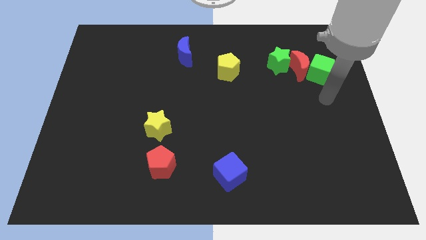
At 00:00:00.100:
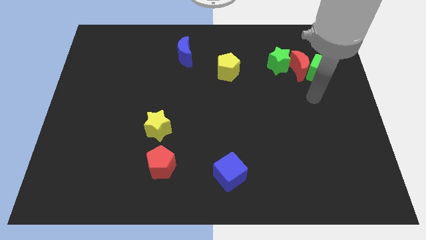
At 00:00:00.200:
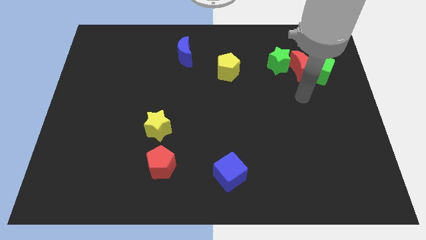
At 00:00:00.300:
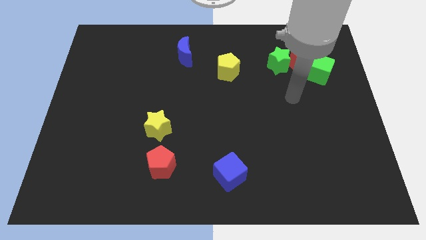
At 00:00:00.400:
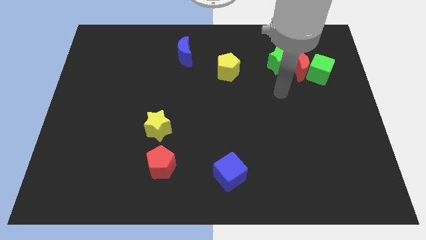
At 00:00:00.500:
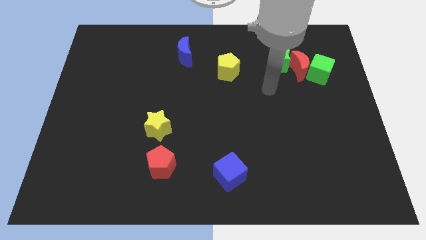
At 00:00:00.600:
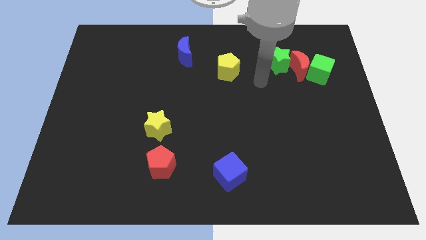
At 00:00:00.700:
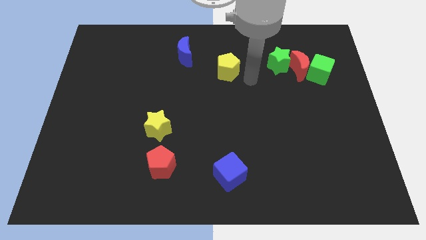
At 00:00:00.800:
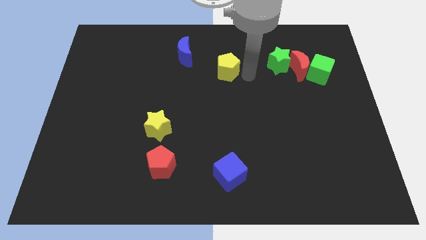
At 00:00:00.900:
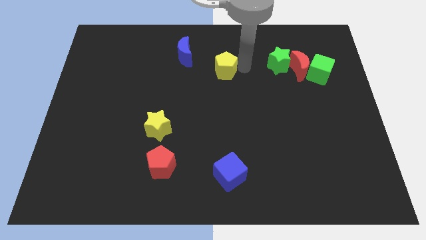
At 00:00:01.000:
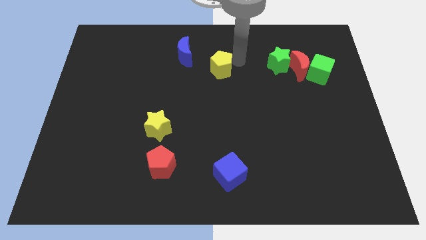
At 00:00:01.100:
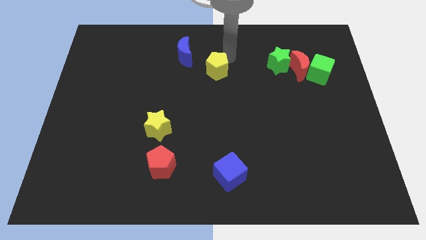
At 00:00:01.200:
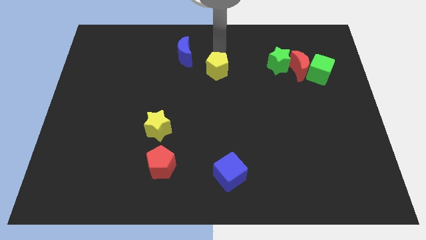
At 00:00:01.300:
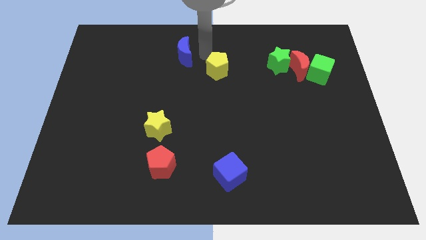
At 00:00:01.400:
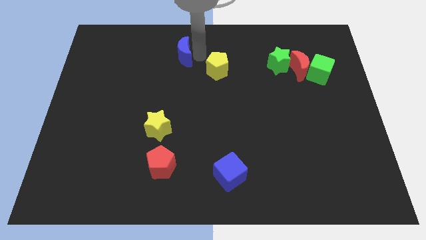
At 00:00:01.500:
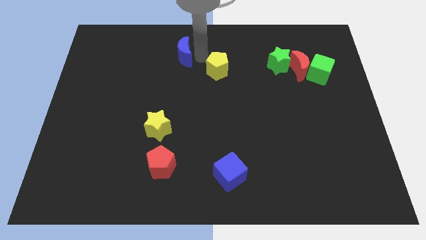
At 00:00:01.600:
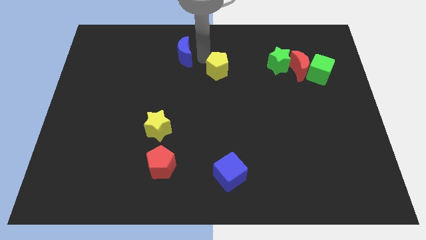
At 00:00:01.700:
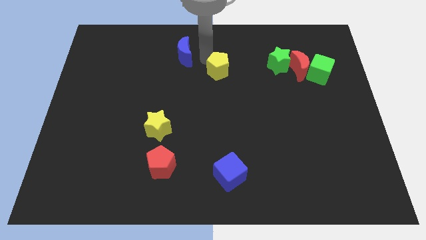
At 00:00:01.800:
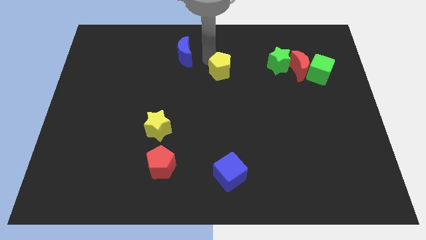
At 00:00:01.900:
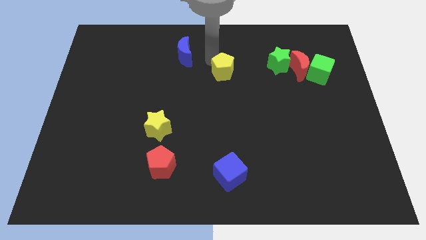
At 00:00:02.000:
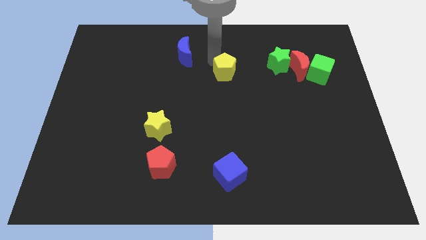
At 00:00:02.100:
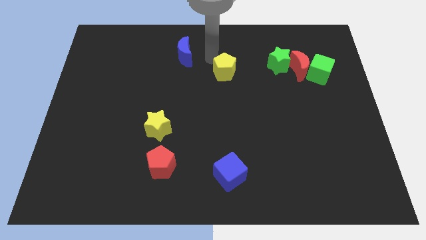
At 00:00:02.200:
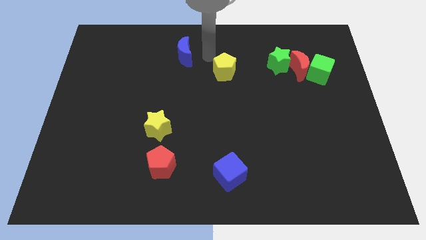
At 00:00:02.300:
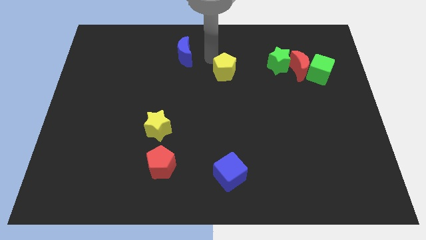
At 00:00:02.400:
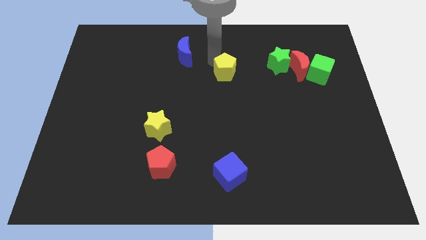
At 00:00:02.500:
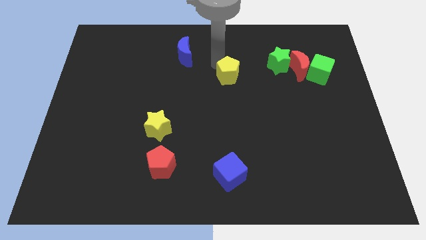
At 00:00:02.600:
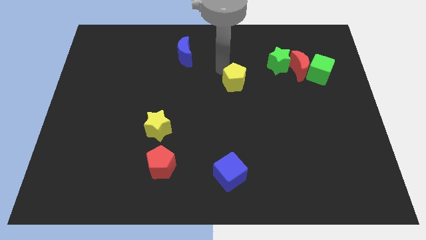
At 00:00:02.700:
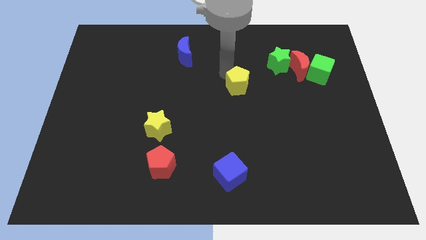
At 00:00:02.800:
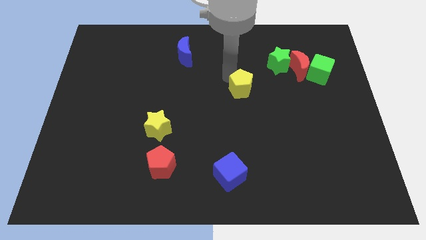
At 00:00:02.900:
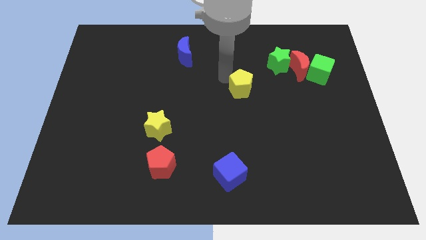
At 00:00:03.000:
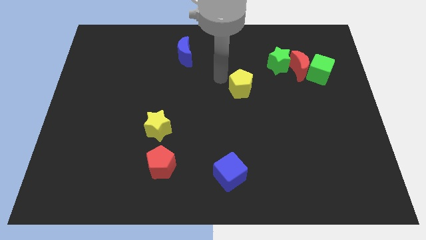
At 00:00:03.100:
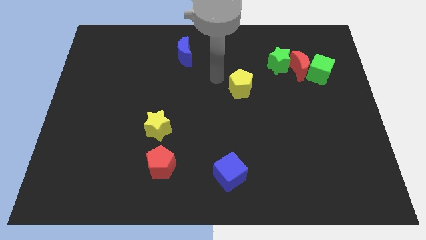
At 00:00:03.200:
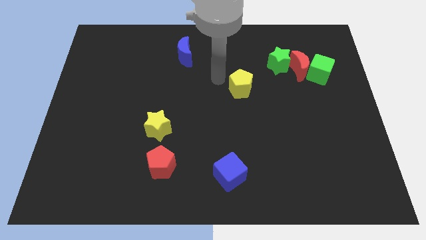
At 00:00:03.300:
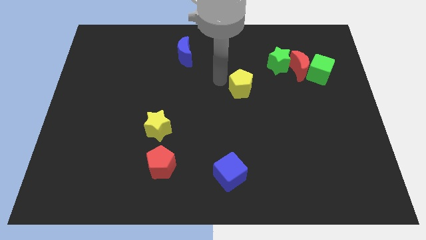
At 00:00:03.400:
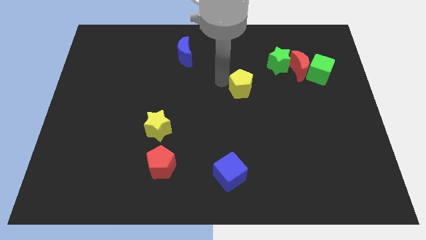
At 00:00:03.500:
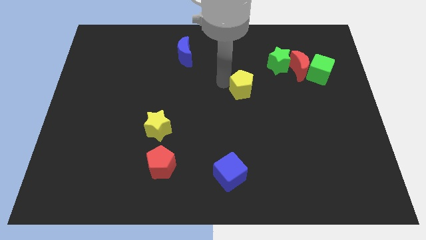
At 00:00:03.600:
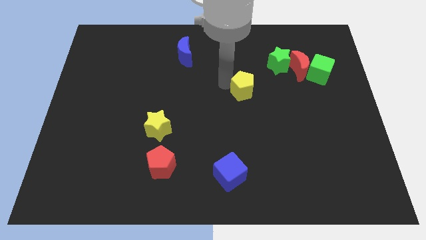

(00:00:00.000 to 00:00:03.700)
slightly move the yellow pentagon down and right

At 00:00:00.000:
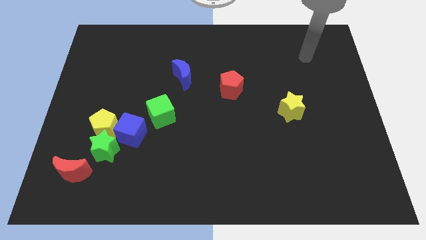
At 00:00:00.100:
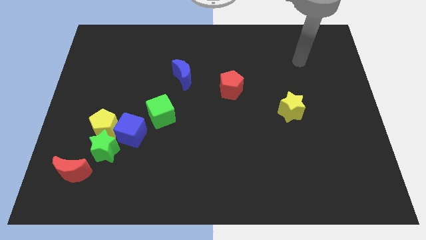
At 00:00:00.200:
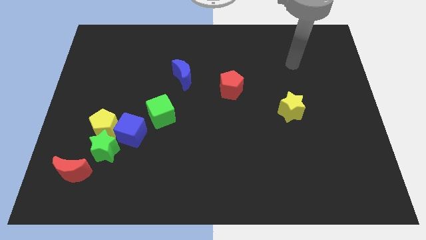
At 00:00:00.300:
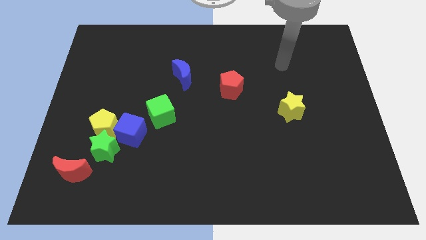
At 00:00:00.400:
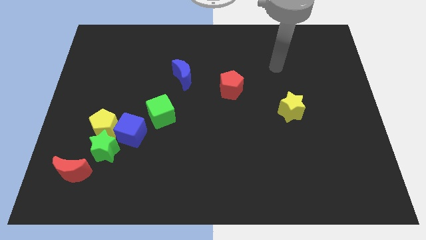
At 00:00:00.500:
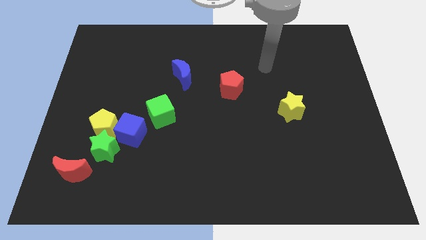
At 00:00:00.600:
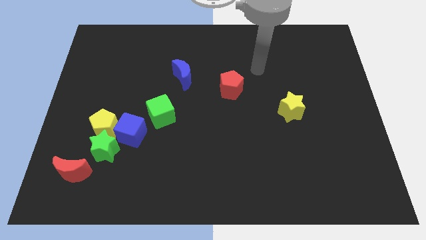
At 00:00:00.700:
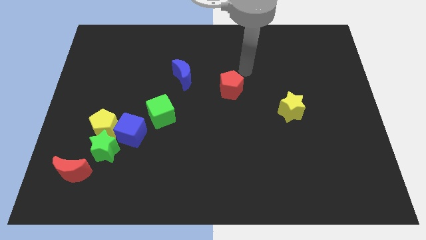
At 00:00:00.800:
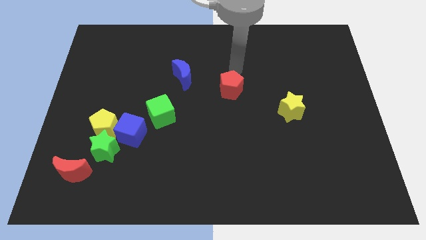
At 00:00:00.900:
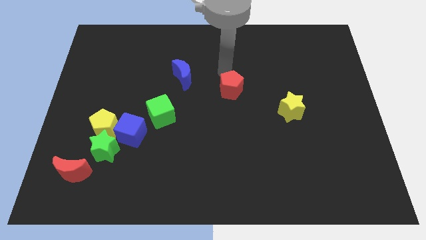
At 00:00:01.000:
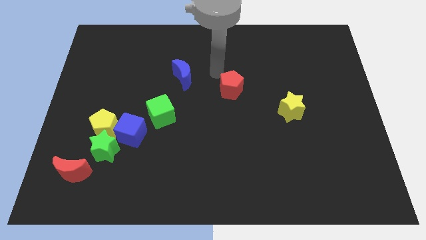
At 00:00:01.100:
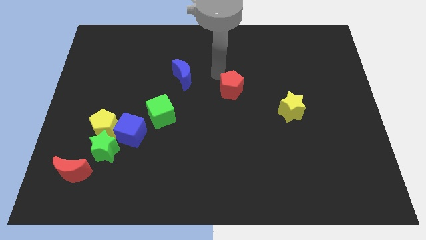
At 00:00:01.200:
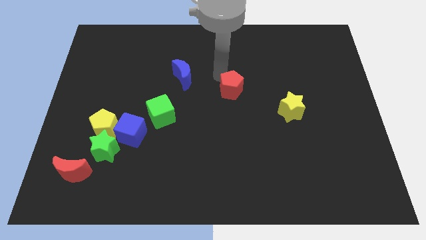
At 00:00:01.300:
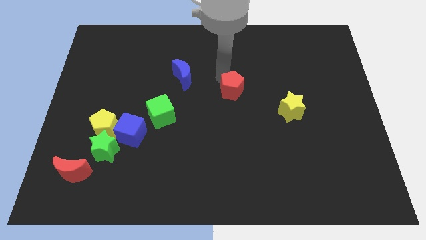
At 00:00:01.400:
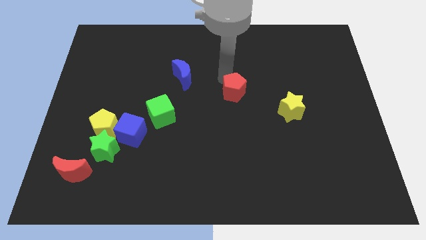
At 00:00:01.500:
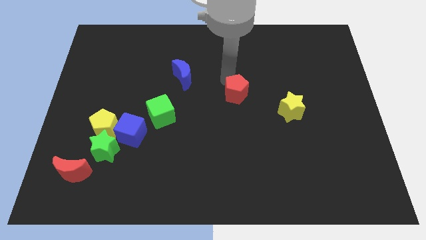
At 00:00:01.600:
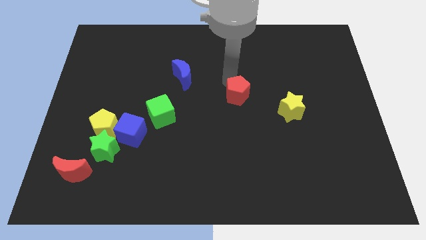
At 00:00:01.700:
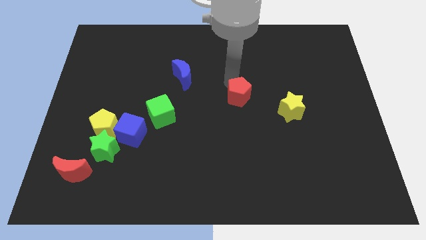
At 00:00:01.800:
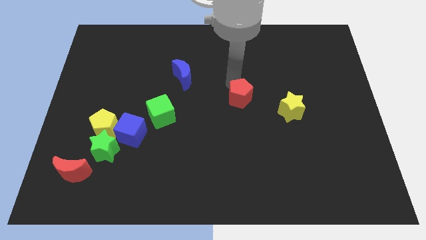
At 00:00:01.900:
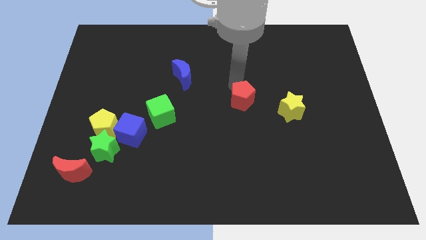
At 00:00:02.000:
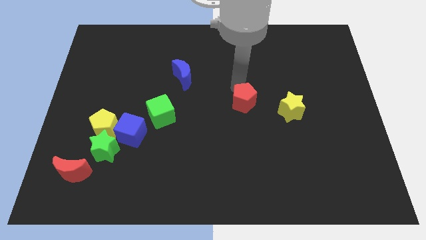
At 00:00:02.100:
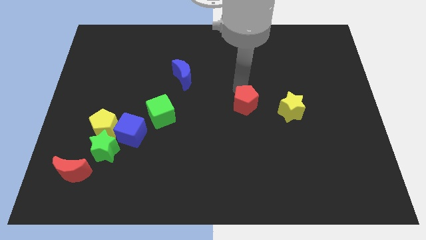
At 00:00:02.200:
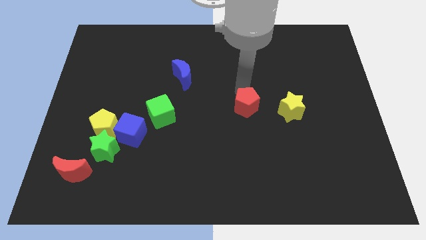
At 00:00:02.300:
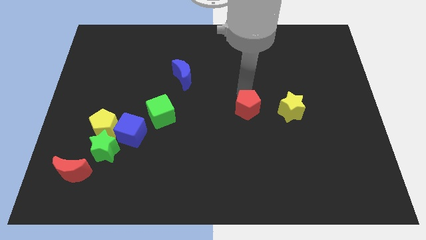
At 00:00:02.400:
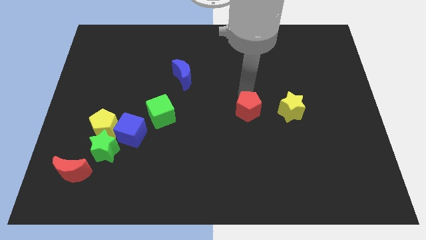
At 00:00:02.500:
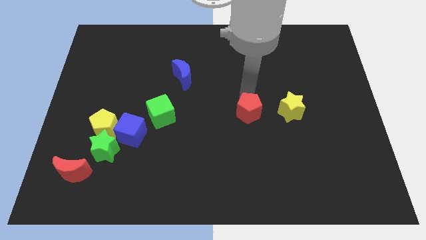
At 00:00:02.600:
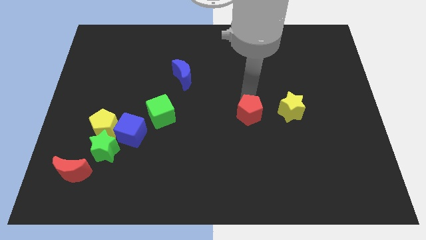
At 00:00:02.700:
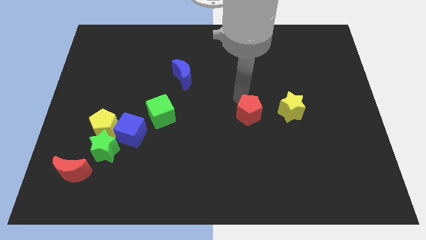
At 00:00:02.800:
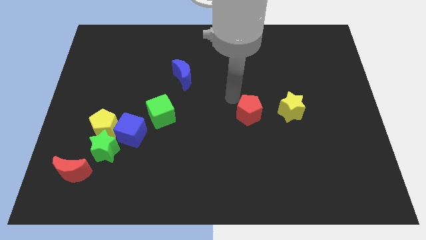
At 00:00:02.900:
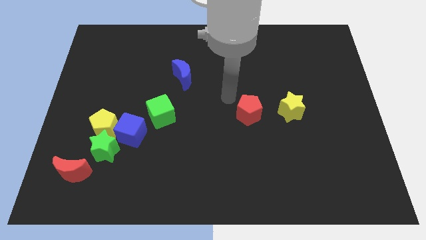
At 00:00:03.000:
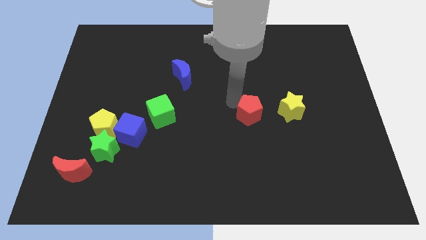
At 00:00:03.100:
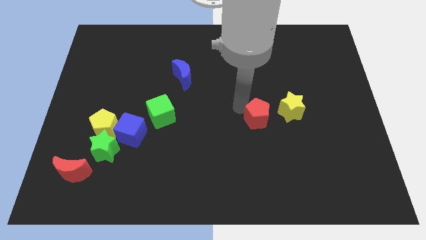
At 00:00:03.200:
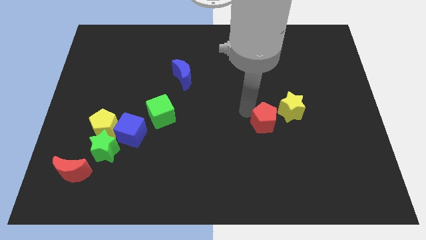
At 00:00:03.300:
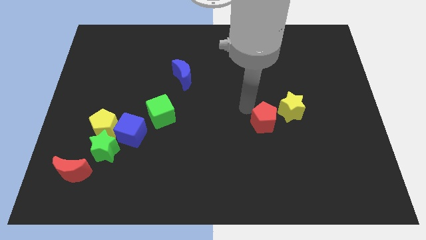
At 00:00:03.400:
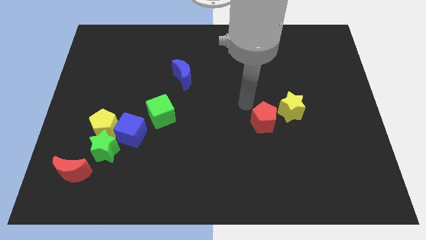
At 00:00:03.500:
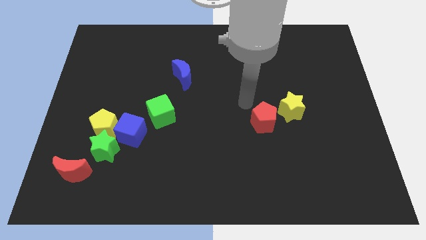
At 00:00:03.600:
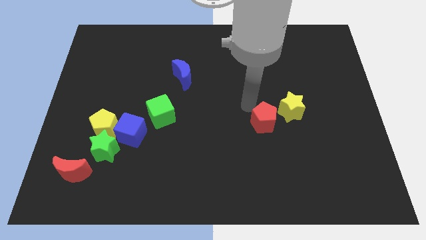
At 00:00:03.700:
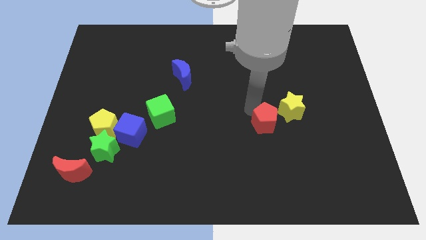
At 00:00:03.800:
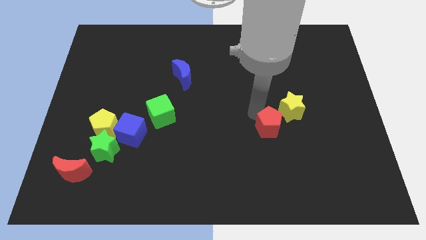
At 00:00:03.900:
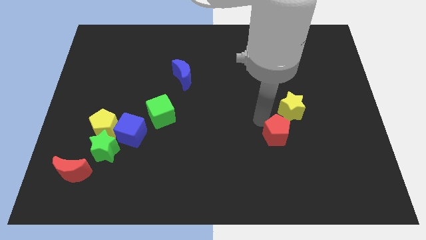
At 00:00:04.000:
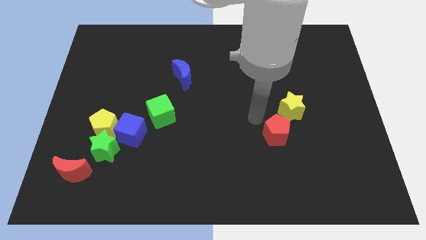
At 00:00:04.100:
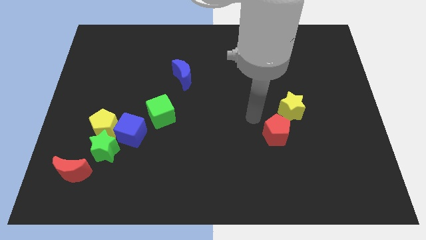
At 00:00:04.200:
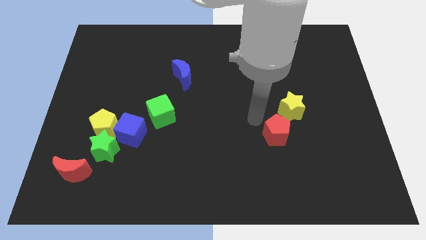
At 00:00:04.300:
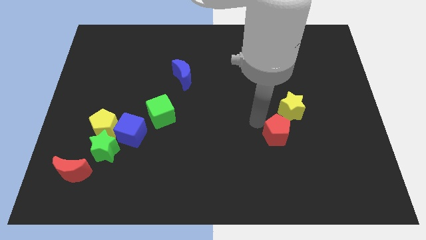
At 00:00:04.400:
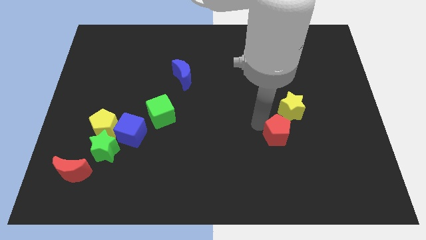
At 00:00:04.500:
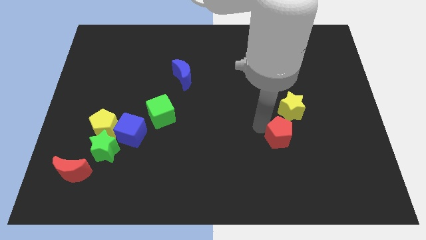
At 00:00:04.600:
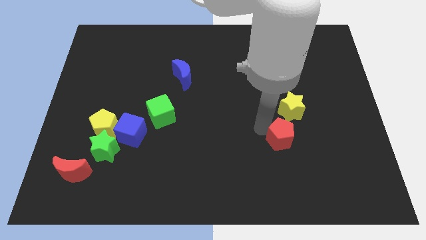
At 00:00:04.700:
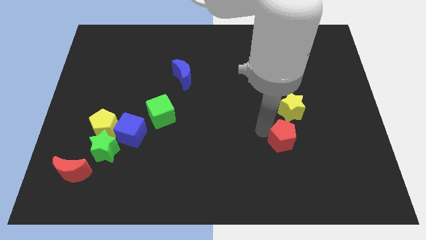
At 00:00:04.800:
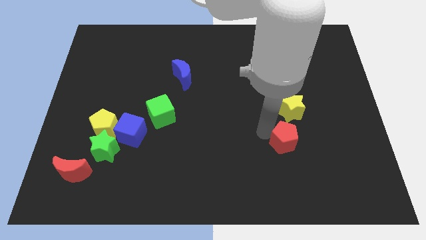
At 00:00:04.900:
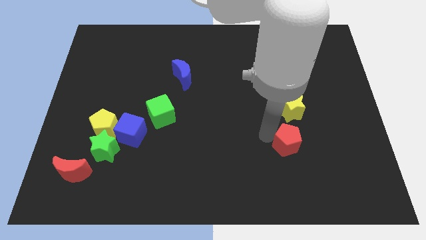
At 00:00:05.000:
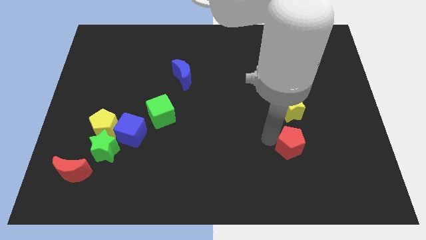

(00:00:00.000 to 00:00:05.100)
slide the red pentagon down and right

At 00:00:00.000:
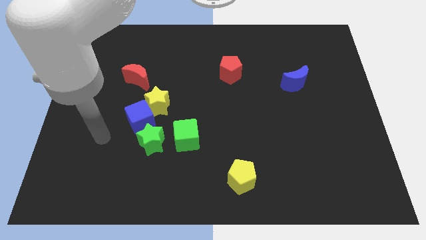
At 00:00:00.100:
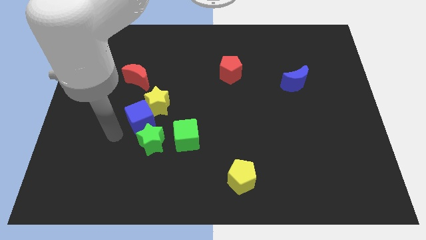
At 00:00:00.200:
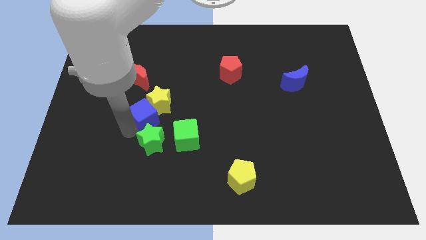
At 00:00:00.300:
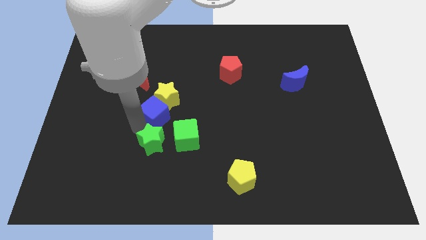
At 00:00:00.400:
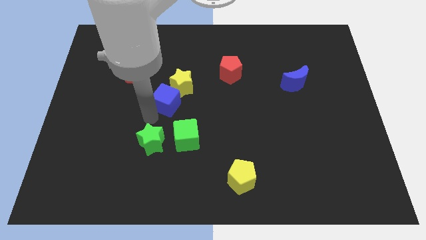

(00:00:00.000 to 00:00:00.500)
move the yellow star a little up and then to the right
